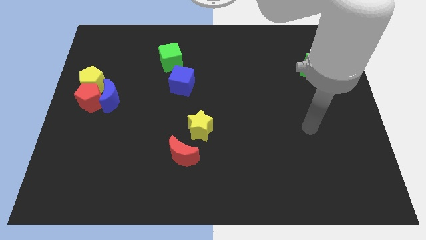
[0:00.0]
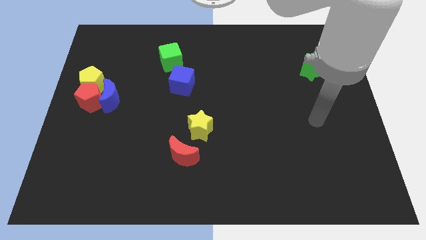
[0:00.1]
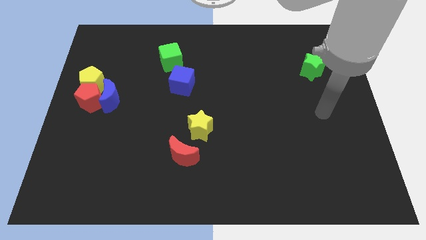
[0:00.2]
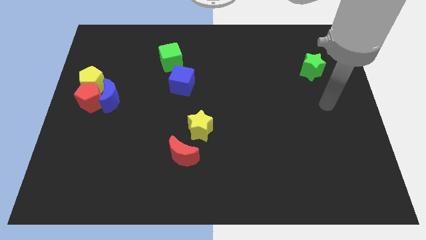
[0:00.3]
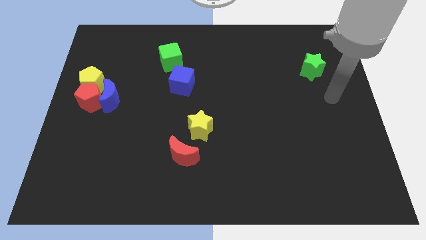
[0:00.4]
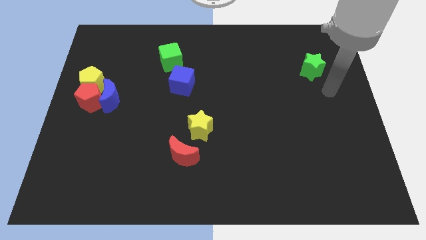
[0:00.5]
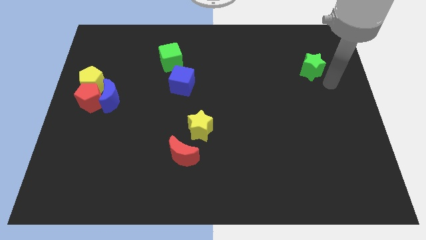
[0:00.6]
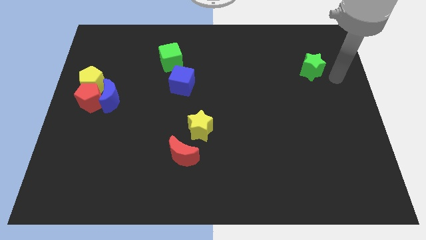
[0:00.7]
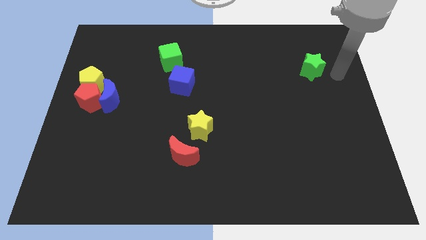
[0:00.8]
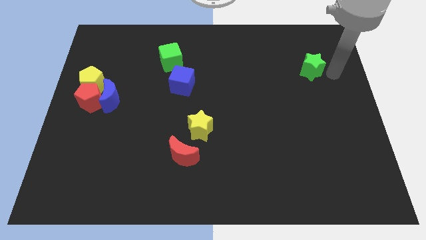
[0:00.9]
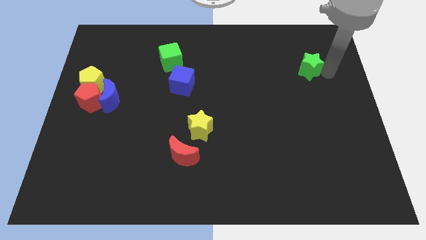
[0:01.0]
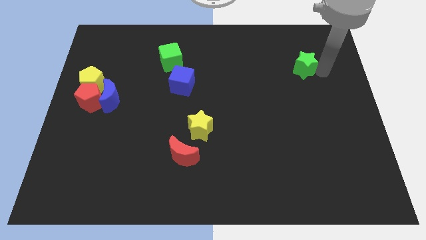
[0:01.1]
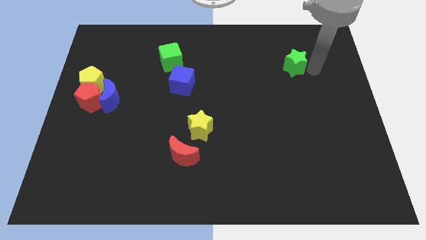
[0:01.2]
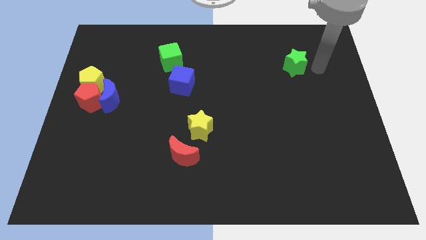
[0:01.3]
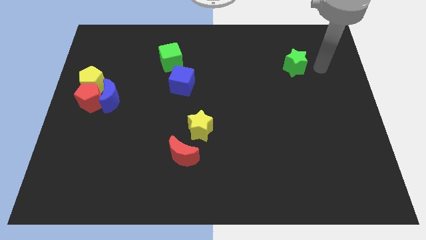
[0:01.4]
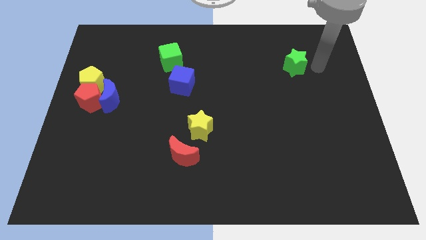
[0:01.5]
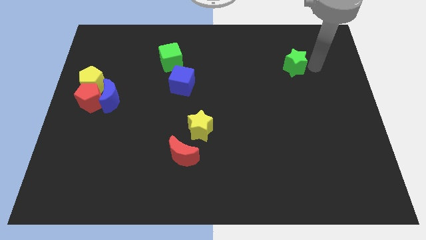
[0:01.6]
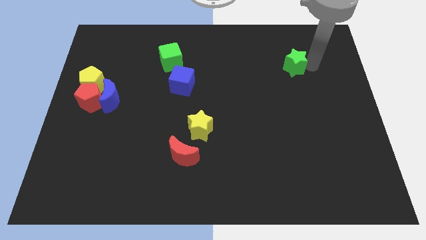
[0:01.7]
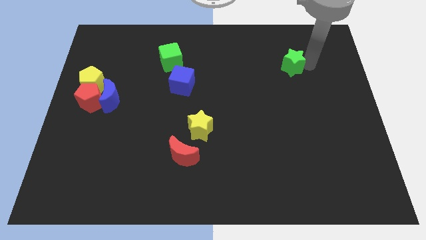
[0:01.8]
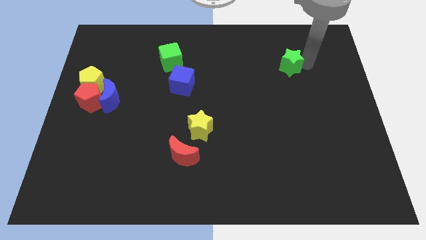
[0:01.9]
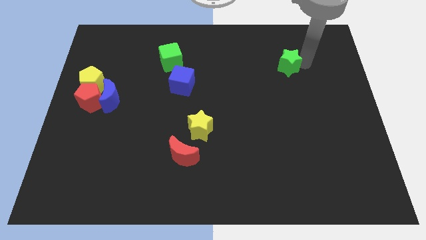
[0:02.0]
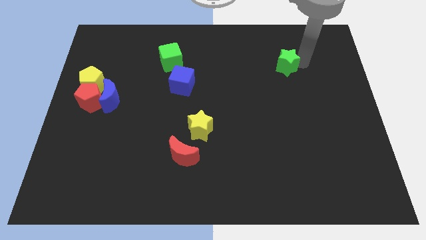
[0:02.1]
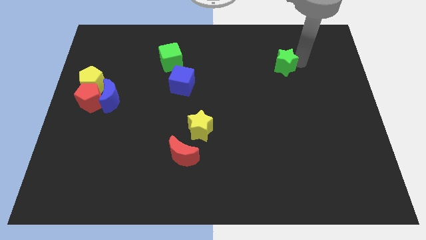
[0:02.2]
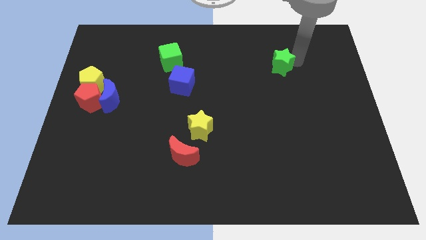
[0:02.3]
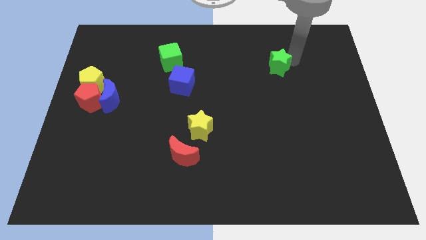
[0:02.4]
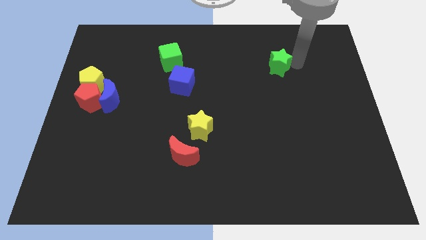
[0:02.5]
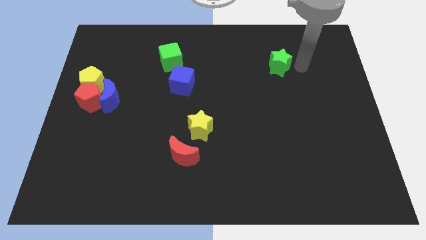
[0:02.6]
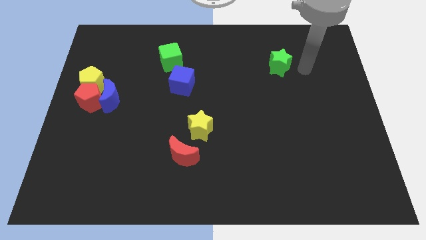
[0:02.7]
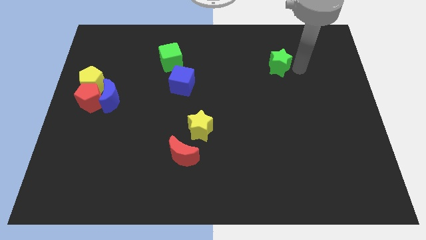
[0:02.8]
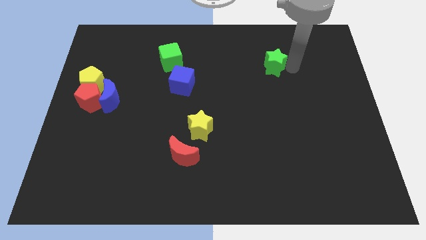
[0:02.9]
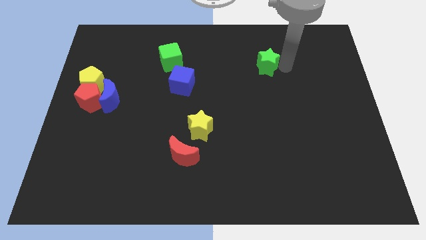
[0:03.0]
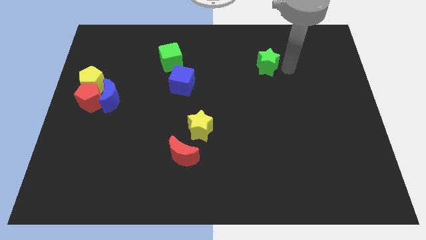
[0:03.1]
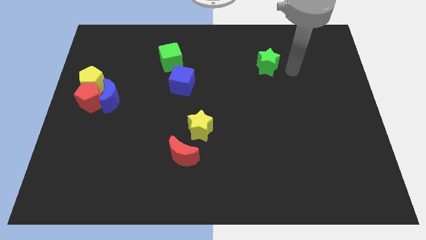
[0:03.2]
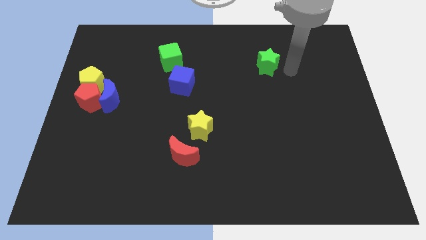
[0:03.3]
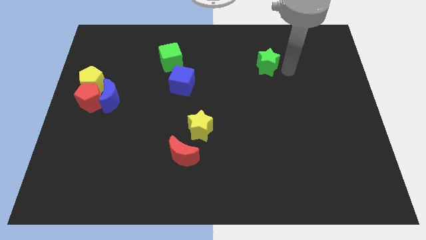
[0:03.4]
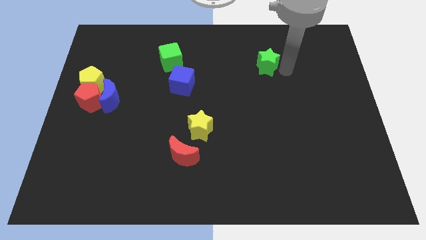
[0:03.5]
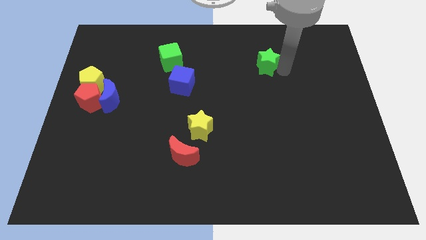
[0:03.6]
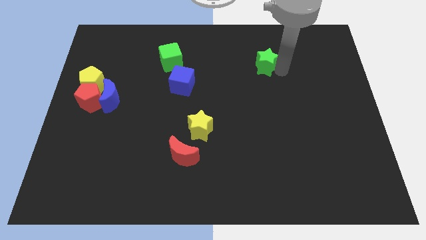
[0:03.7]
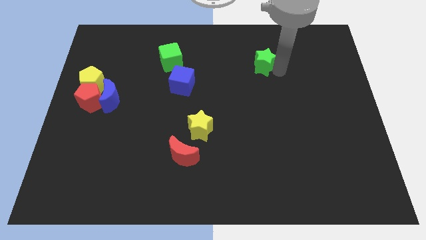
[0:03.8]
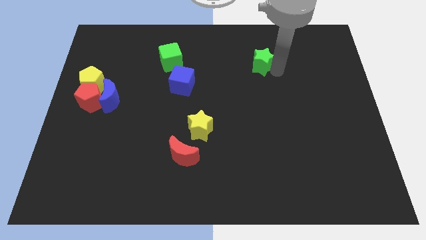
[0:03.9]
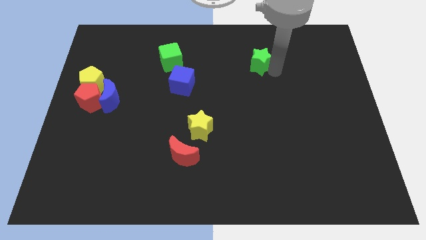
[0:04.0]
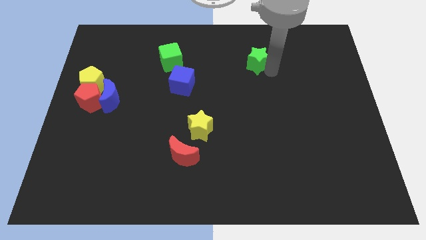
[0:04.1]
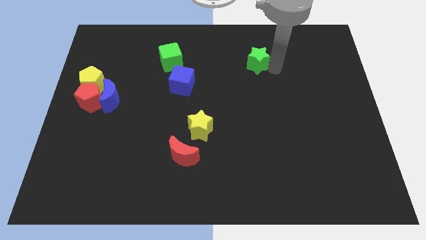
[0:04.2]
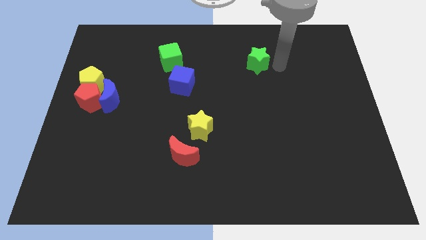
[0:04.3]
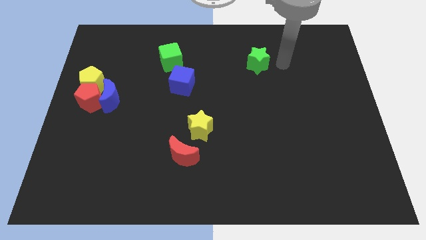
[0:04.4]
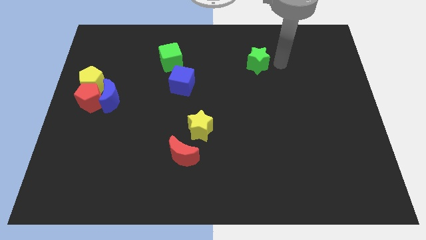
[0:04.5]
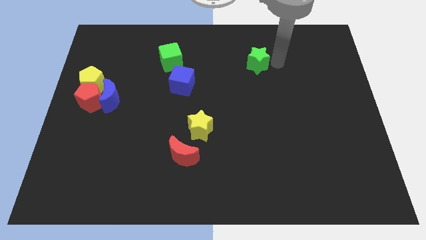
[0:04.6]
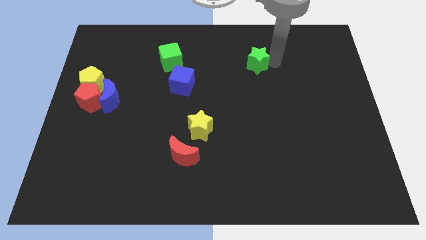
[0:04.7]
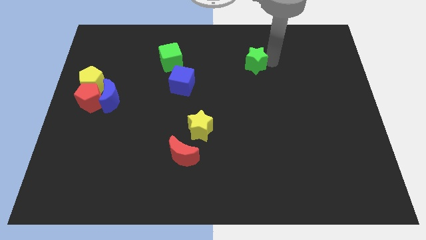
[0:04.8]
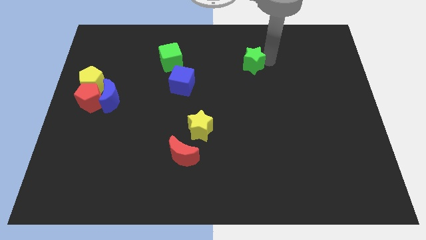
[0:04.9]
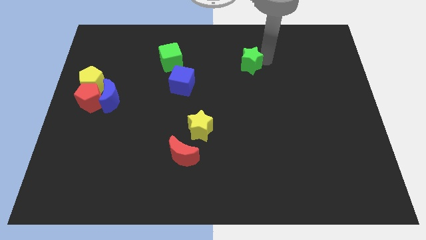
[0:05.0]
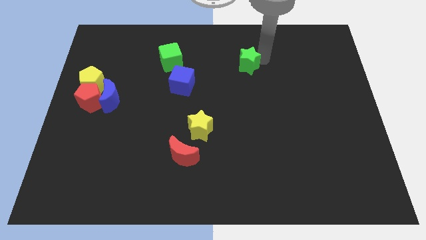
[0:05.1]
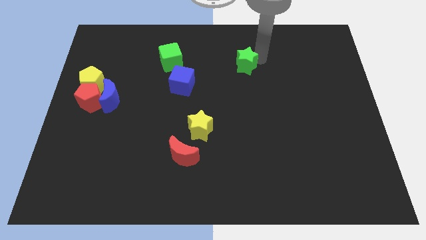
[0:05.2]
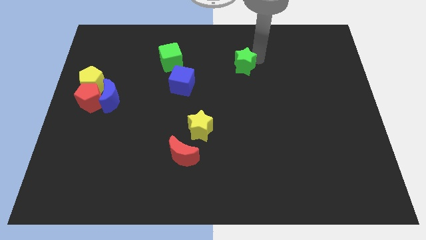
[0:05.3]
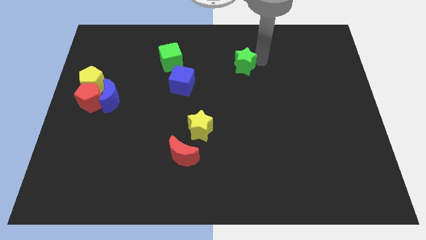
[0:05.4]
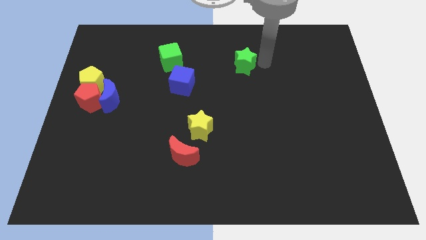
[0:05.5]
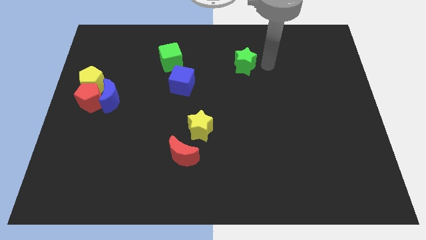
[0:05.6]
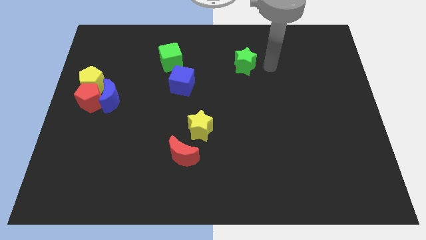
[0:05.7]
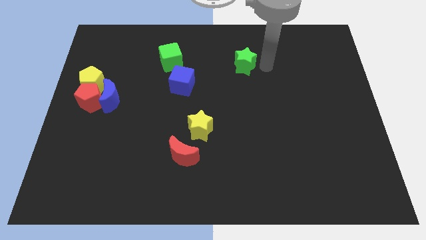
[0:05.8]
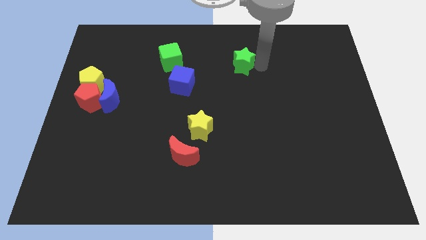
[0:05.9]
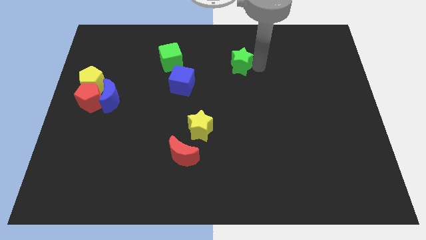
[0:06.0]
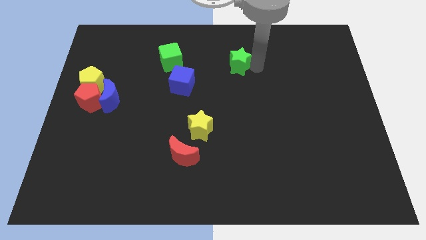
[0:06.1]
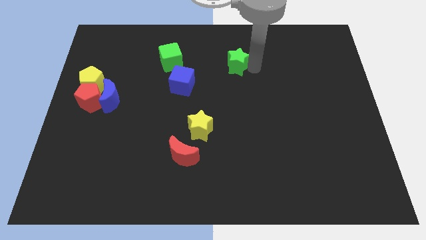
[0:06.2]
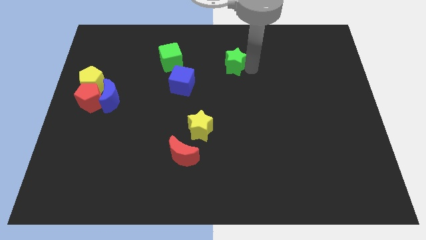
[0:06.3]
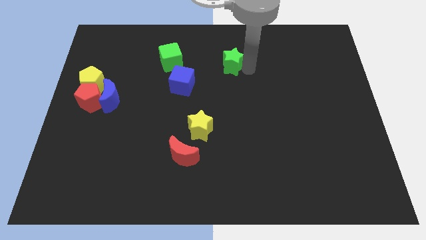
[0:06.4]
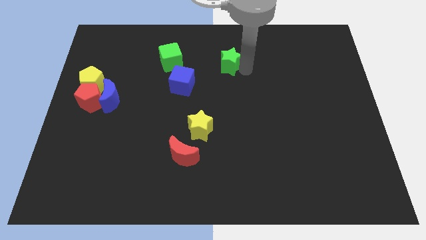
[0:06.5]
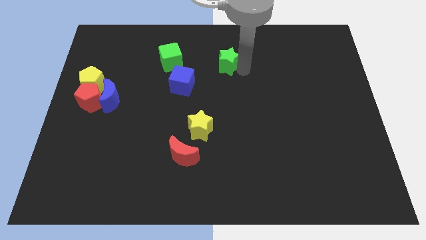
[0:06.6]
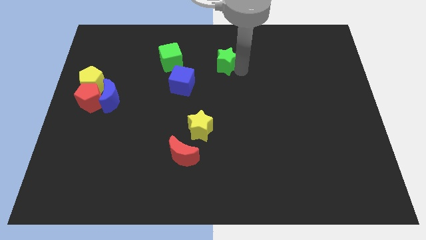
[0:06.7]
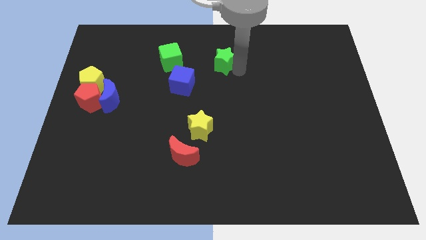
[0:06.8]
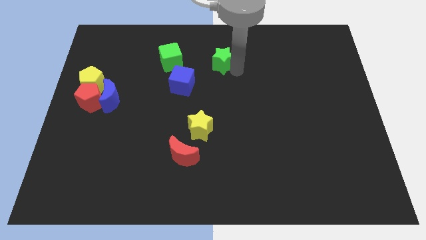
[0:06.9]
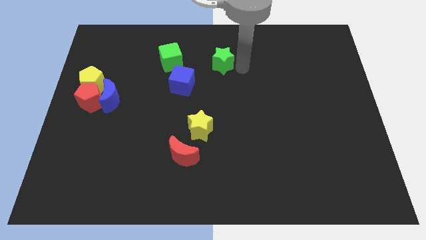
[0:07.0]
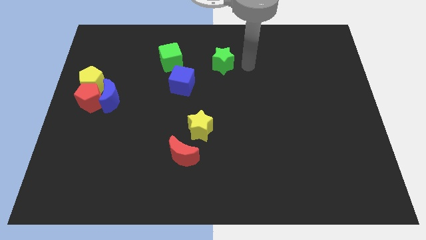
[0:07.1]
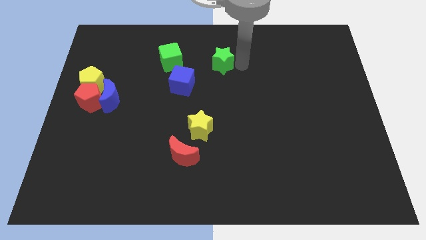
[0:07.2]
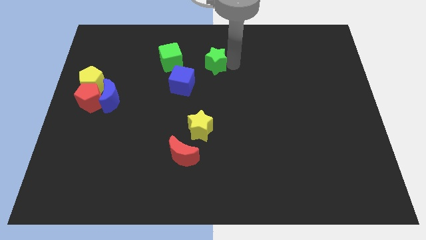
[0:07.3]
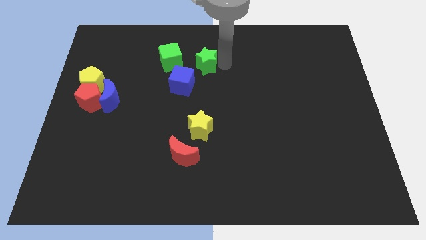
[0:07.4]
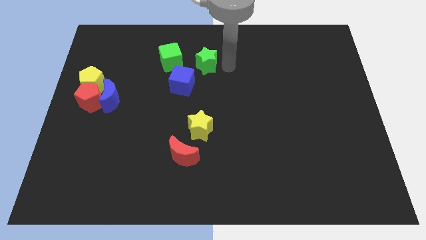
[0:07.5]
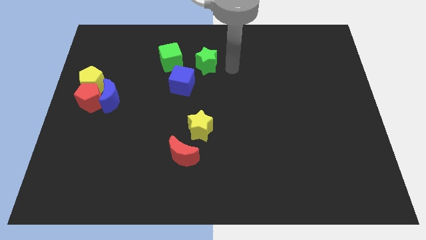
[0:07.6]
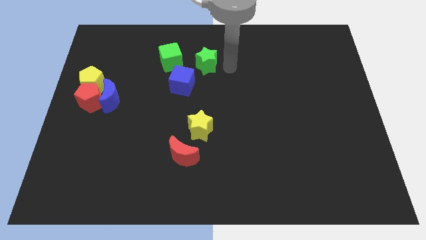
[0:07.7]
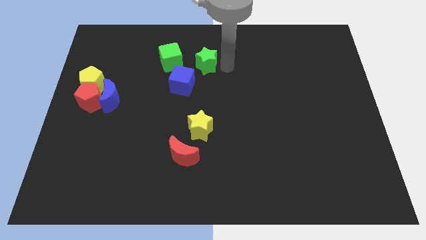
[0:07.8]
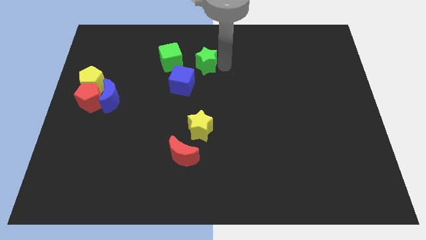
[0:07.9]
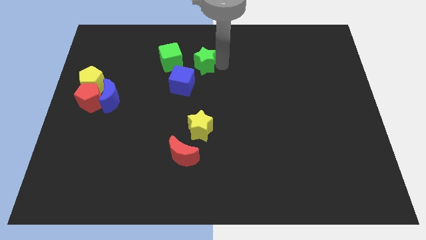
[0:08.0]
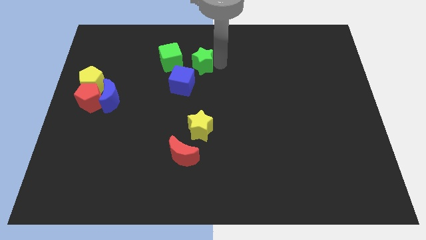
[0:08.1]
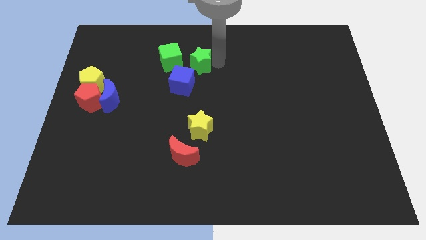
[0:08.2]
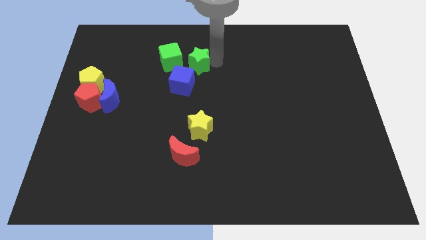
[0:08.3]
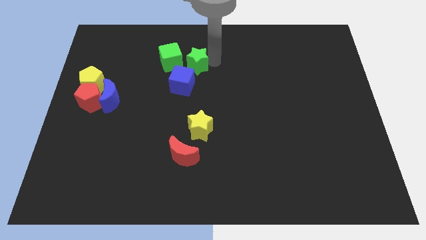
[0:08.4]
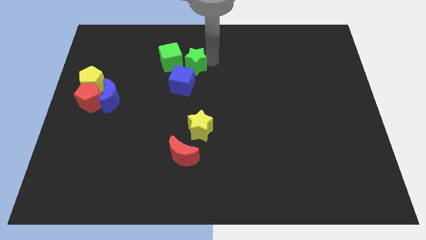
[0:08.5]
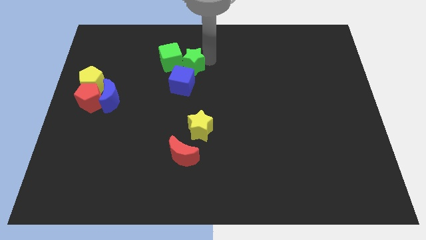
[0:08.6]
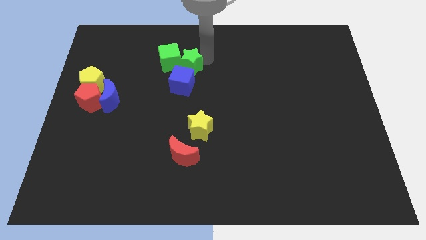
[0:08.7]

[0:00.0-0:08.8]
slide the green star to the green cube
